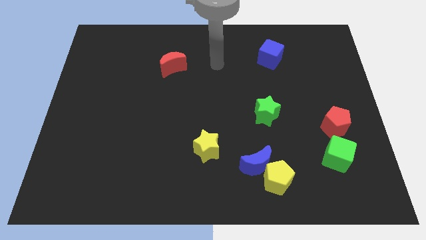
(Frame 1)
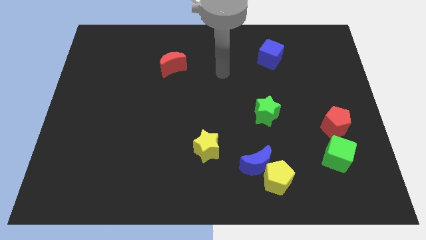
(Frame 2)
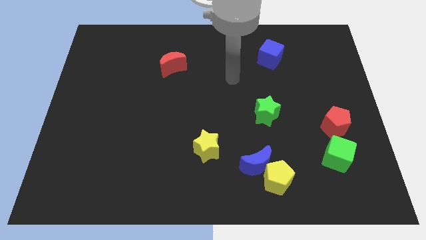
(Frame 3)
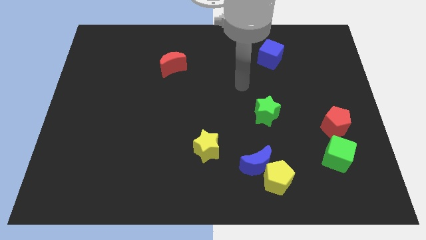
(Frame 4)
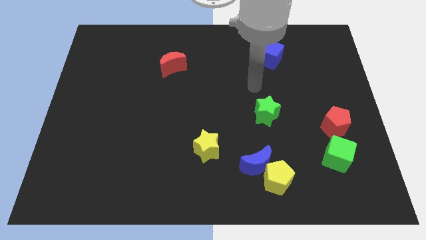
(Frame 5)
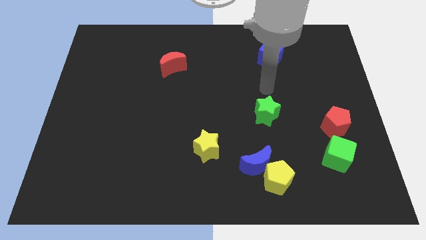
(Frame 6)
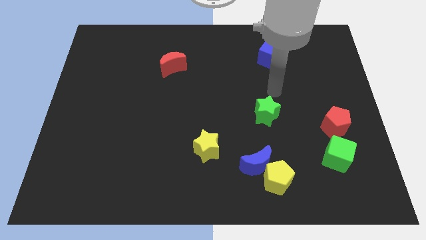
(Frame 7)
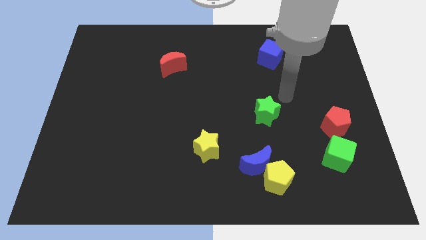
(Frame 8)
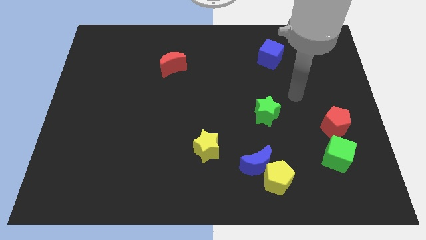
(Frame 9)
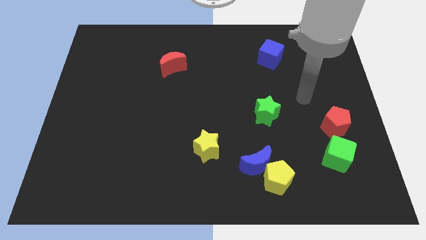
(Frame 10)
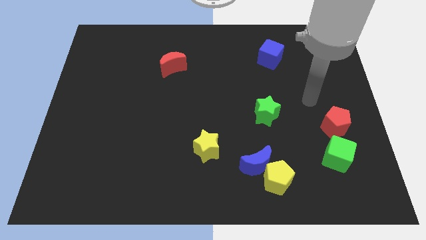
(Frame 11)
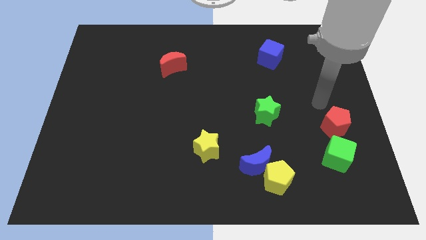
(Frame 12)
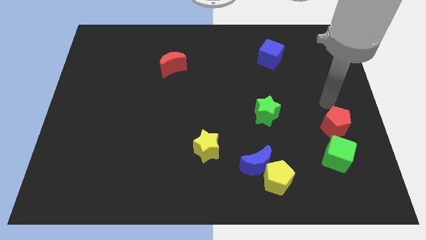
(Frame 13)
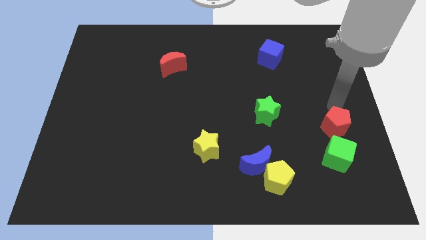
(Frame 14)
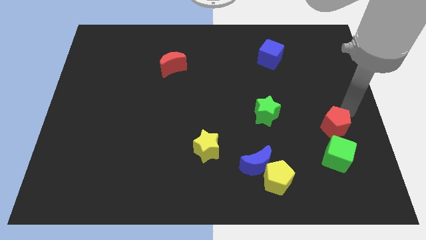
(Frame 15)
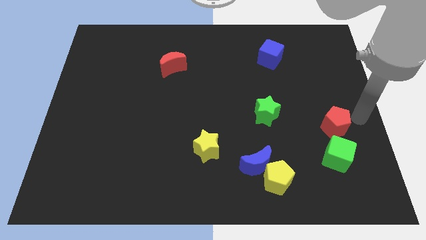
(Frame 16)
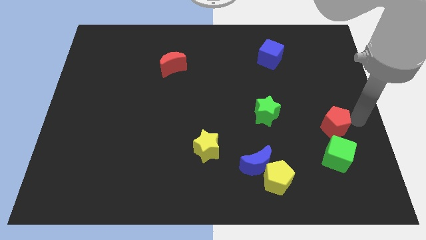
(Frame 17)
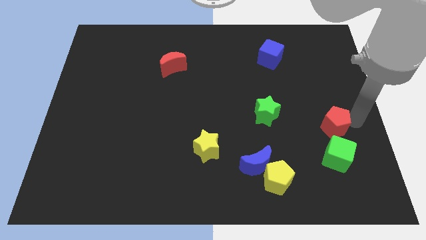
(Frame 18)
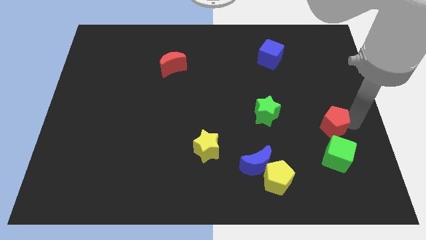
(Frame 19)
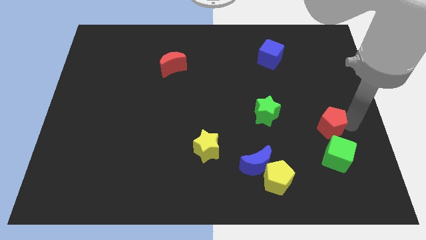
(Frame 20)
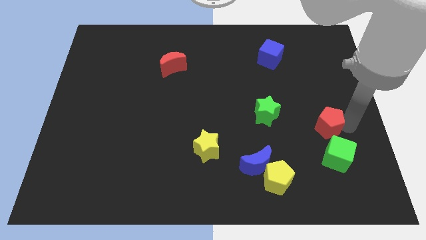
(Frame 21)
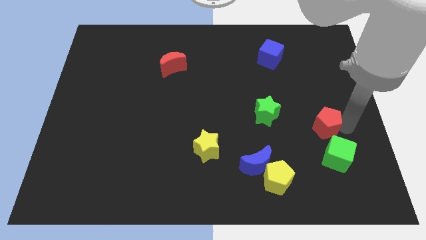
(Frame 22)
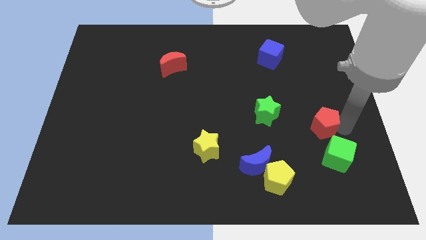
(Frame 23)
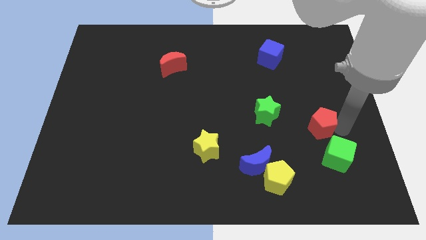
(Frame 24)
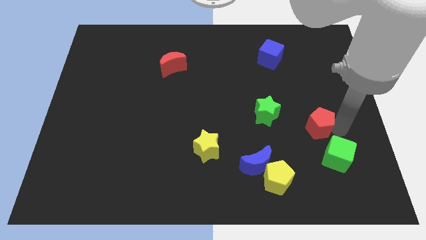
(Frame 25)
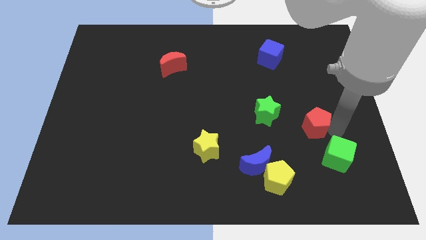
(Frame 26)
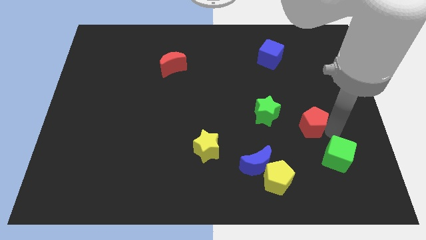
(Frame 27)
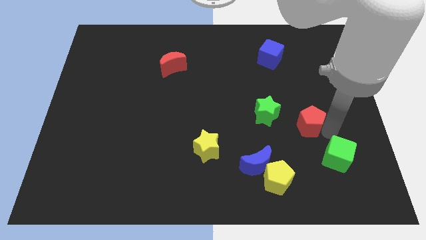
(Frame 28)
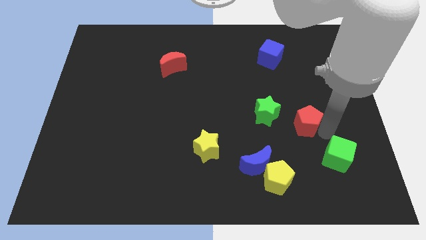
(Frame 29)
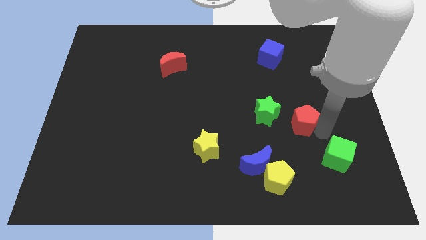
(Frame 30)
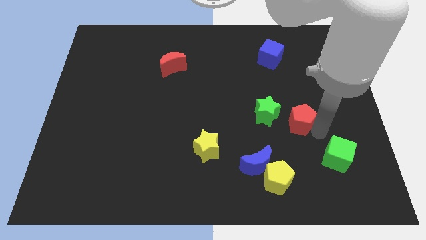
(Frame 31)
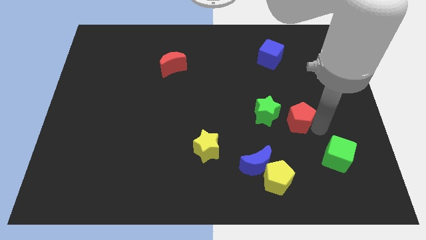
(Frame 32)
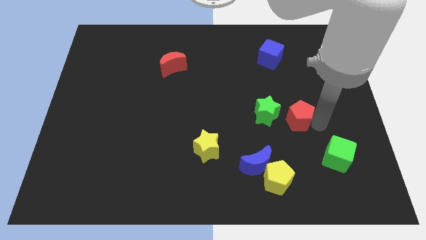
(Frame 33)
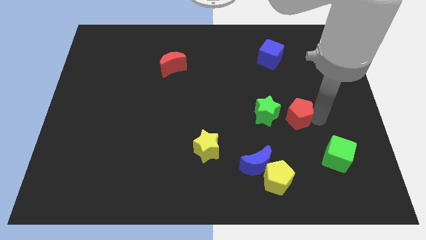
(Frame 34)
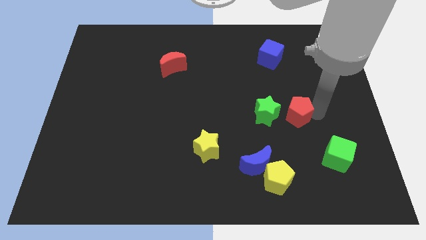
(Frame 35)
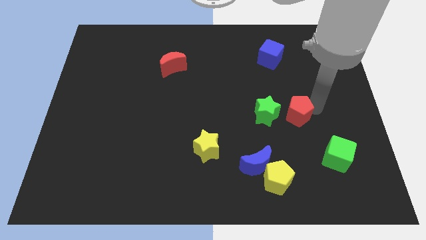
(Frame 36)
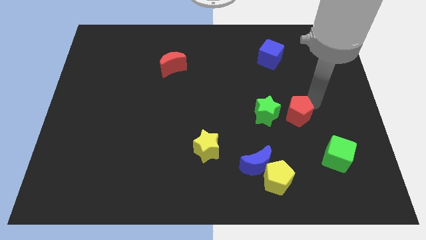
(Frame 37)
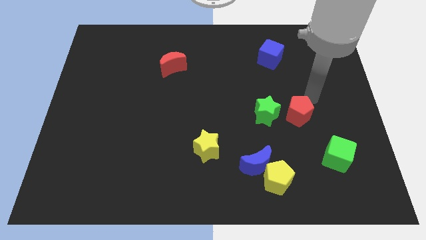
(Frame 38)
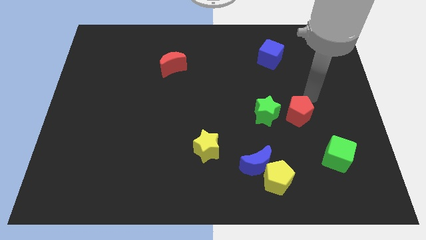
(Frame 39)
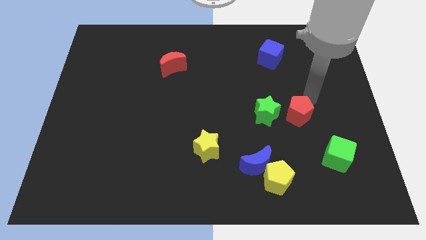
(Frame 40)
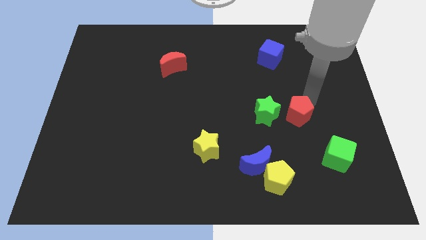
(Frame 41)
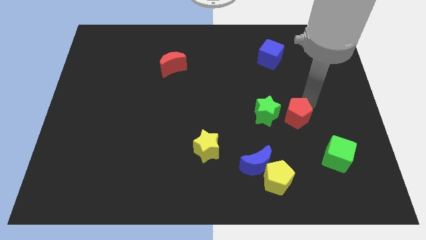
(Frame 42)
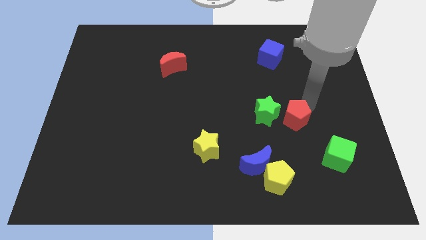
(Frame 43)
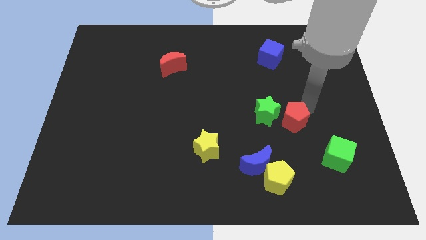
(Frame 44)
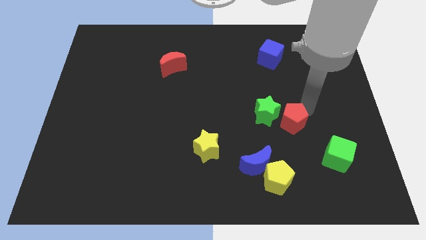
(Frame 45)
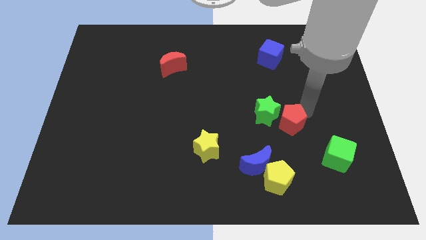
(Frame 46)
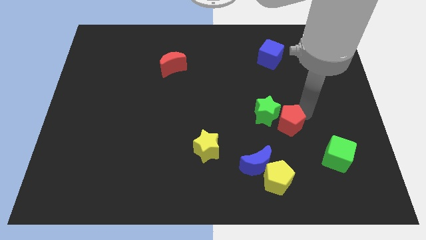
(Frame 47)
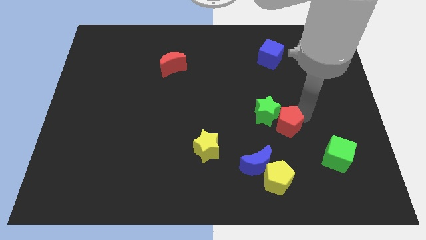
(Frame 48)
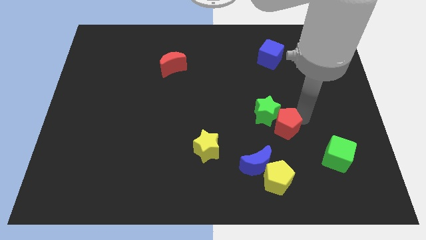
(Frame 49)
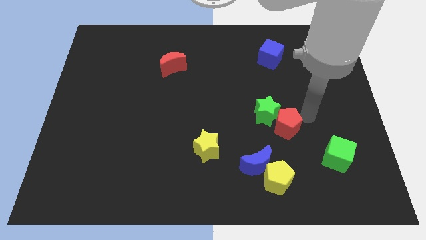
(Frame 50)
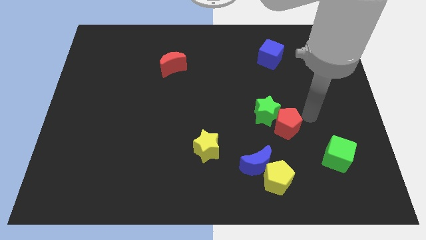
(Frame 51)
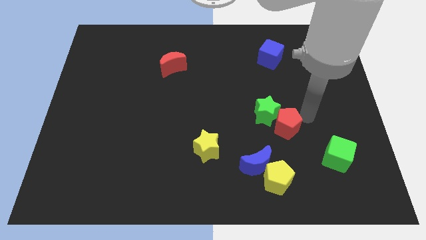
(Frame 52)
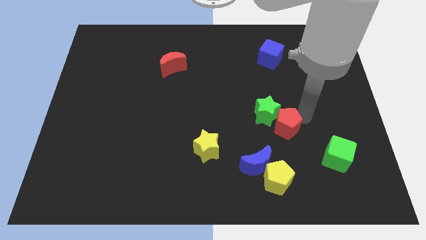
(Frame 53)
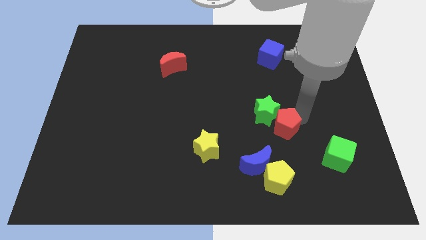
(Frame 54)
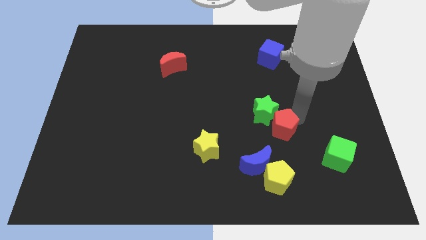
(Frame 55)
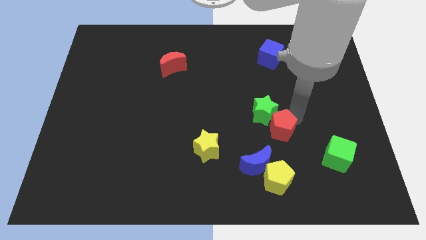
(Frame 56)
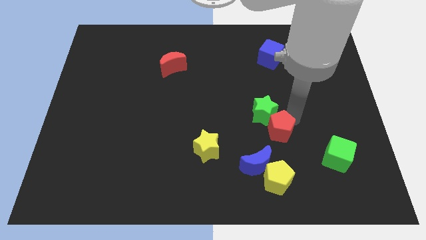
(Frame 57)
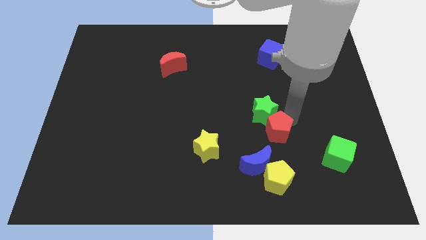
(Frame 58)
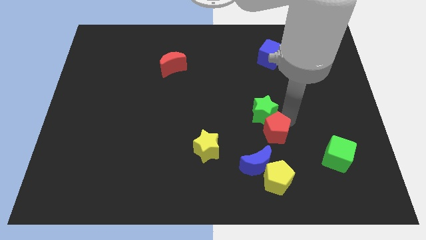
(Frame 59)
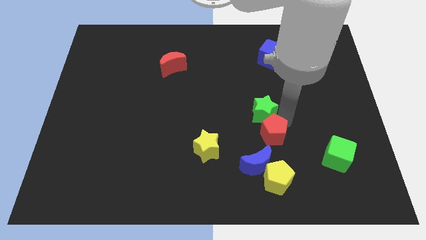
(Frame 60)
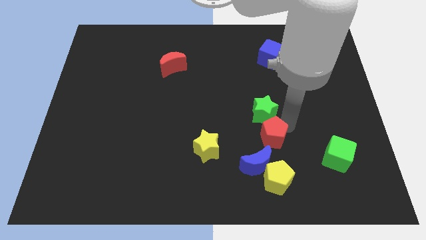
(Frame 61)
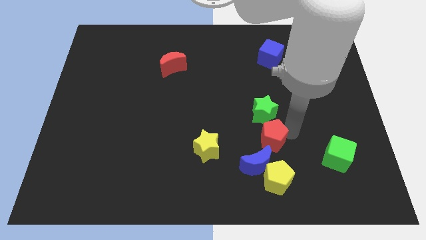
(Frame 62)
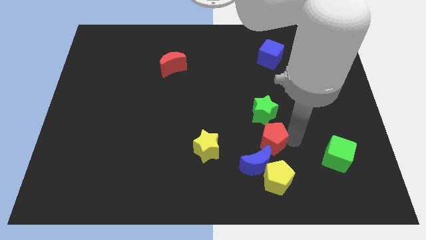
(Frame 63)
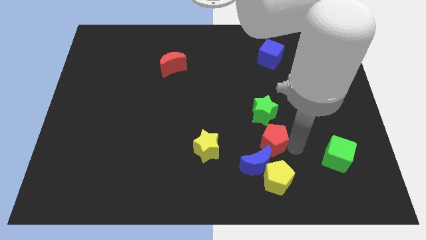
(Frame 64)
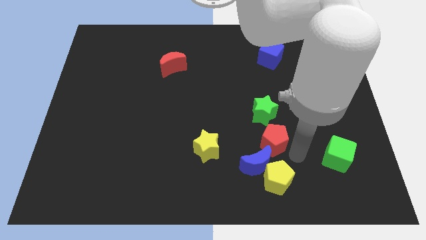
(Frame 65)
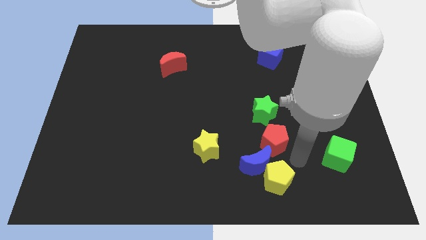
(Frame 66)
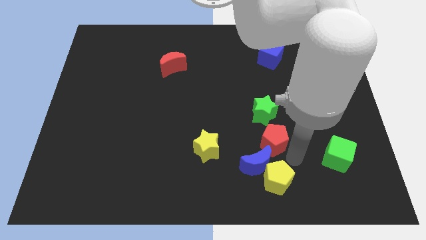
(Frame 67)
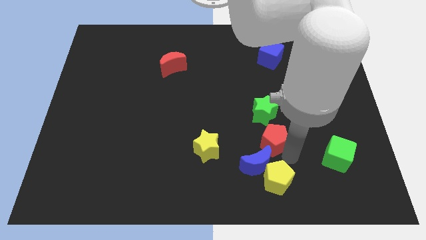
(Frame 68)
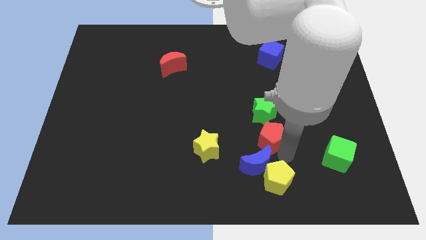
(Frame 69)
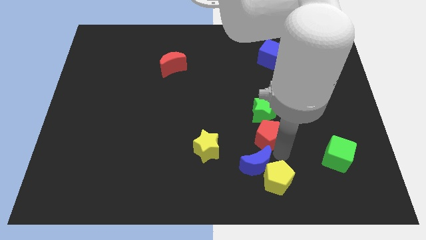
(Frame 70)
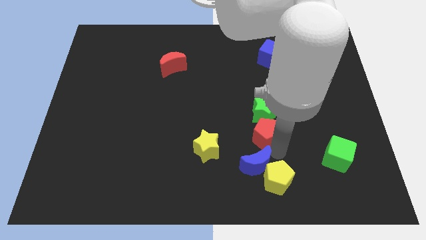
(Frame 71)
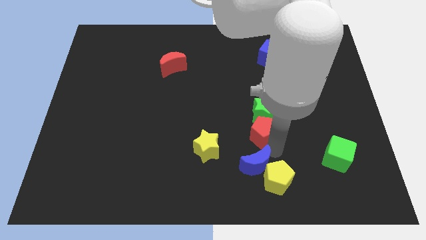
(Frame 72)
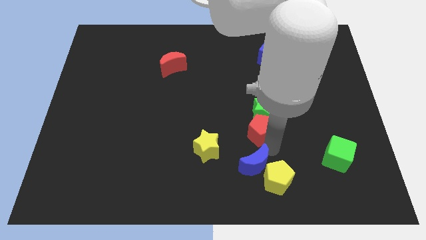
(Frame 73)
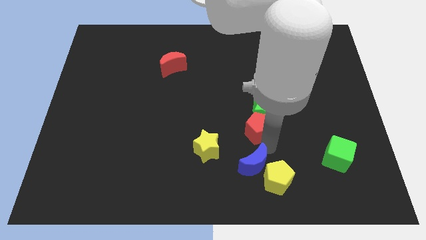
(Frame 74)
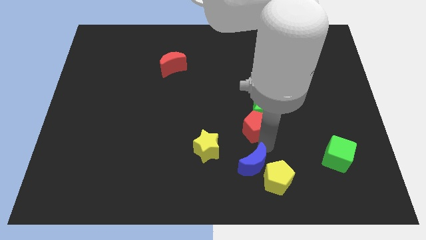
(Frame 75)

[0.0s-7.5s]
move the red pentagon to the center of the board
